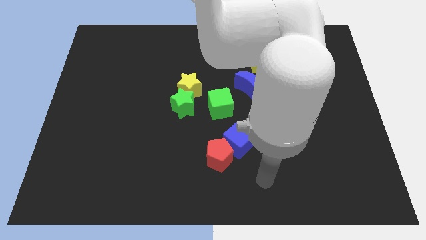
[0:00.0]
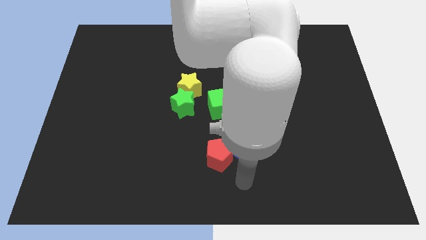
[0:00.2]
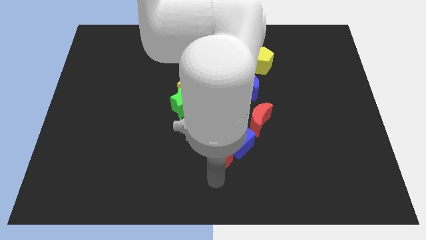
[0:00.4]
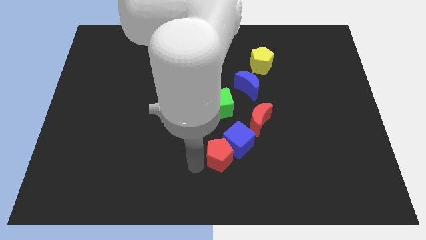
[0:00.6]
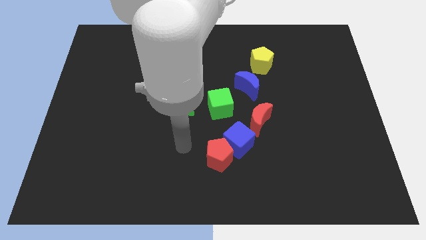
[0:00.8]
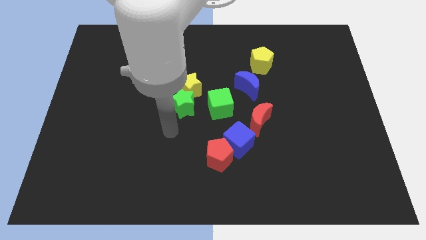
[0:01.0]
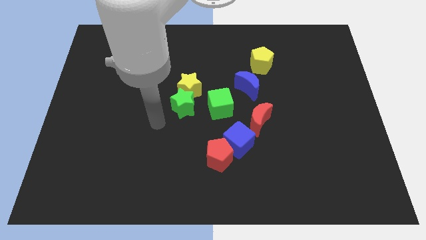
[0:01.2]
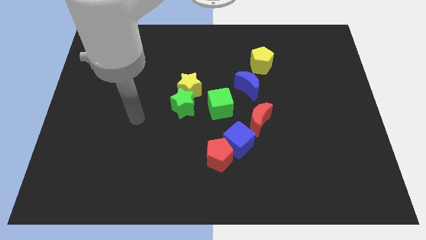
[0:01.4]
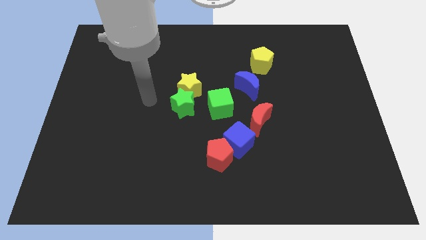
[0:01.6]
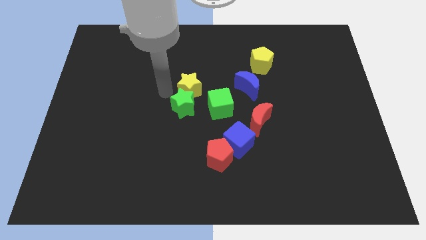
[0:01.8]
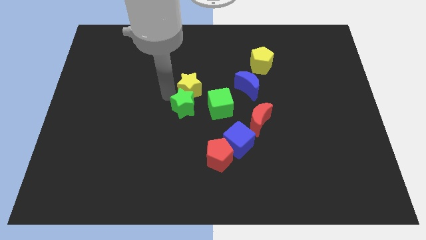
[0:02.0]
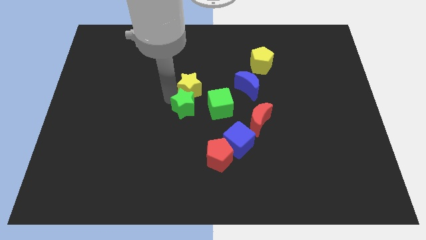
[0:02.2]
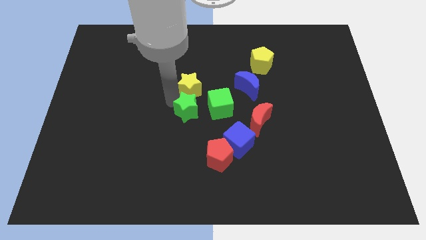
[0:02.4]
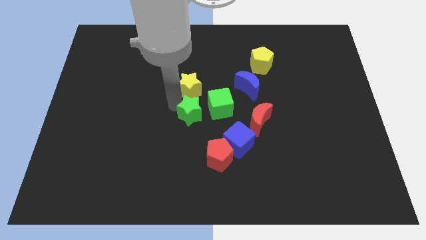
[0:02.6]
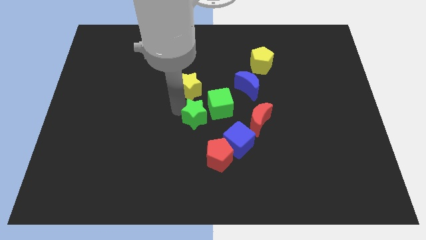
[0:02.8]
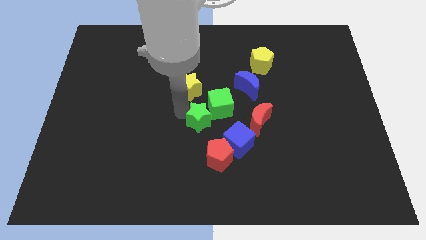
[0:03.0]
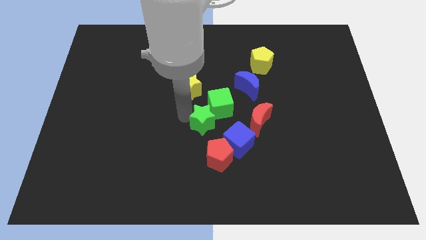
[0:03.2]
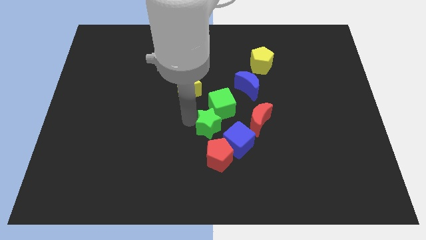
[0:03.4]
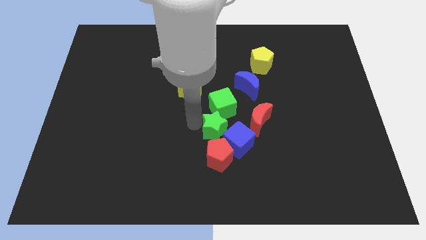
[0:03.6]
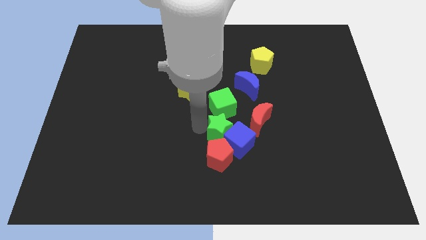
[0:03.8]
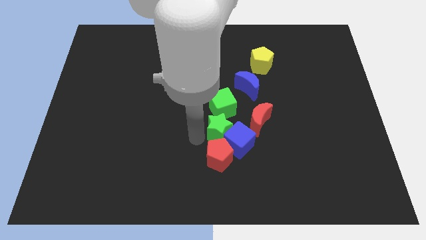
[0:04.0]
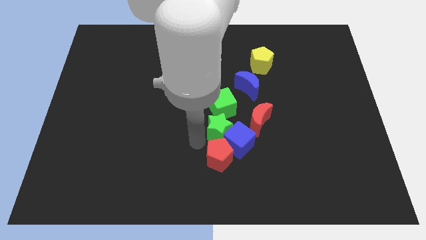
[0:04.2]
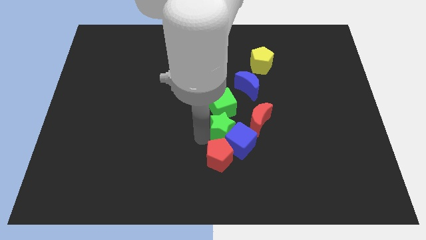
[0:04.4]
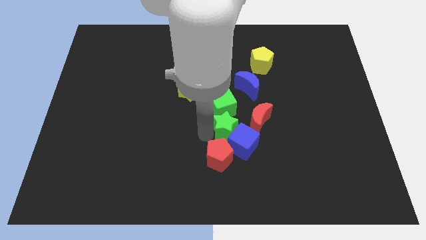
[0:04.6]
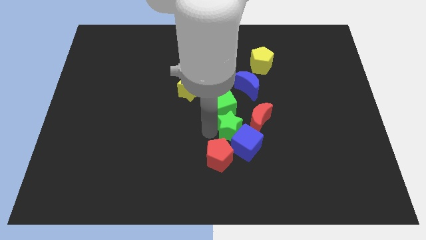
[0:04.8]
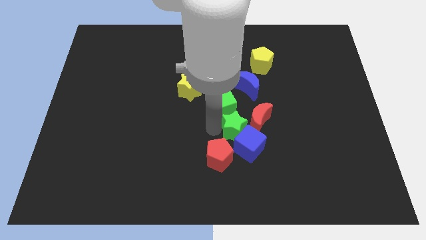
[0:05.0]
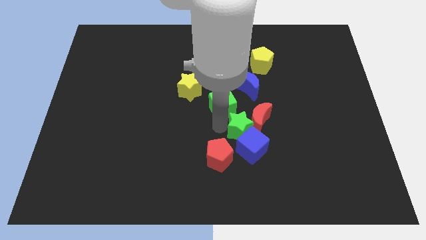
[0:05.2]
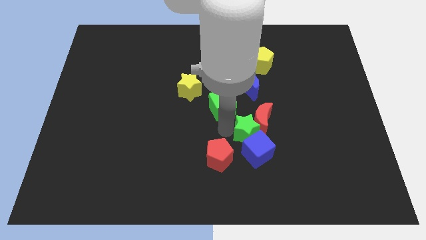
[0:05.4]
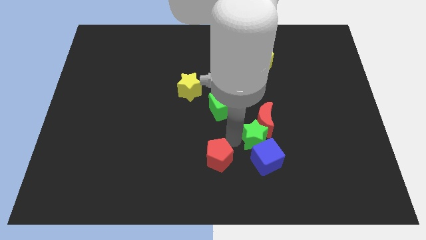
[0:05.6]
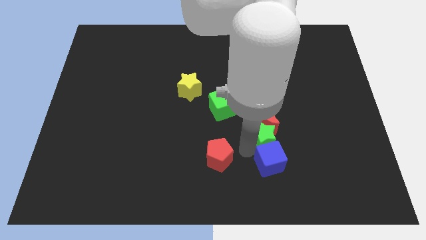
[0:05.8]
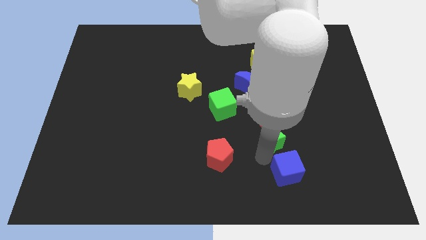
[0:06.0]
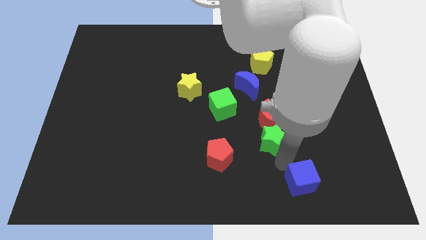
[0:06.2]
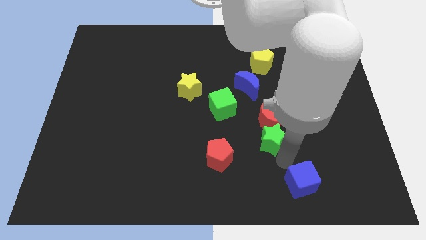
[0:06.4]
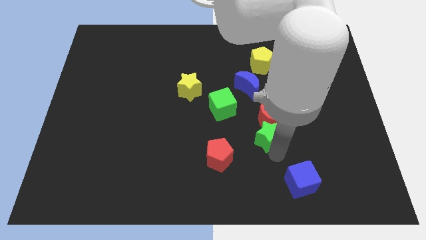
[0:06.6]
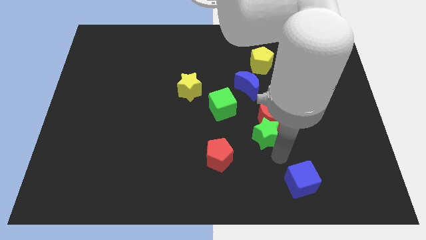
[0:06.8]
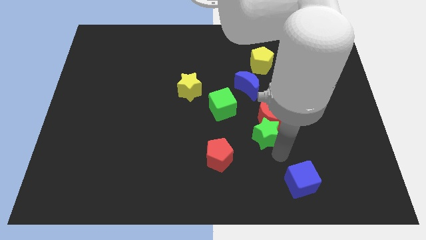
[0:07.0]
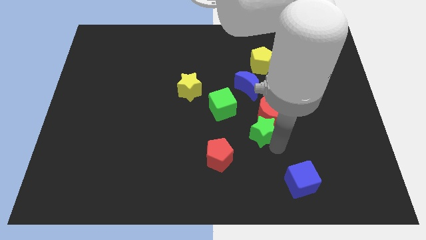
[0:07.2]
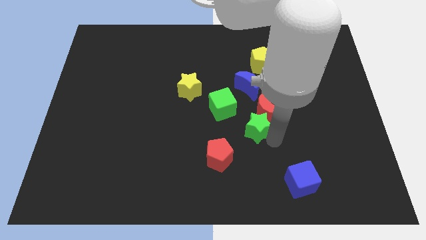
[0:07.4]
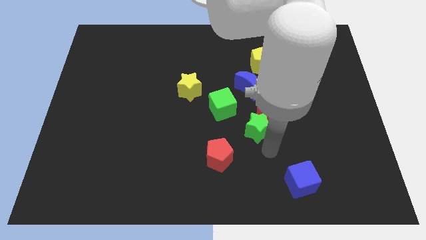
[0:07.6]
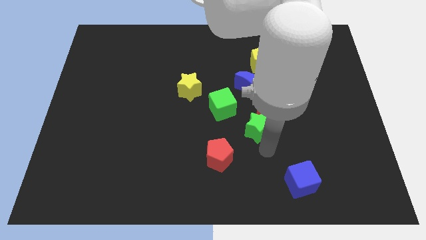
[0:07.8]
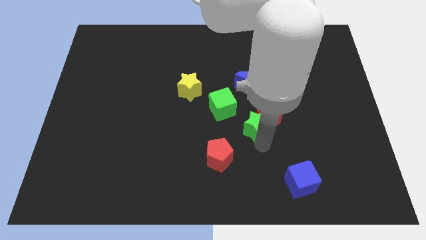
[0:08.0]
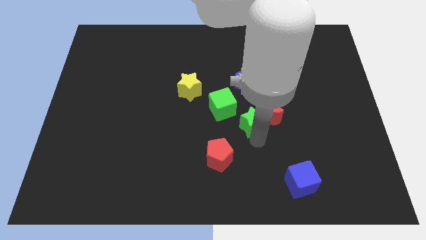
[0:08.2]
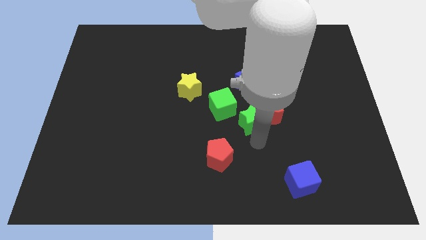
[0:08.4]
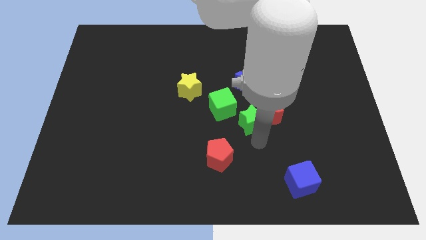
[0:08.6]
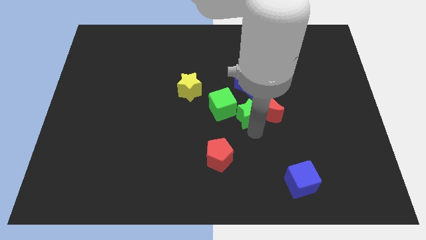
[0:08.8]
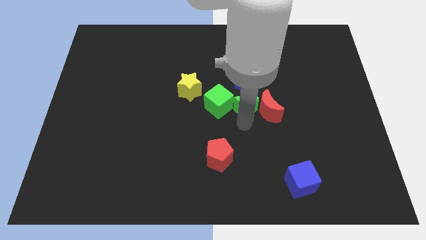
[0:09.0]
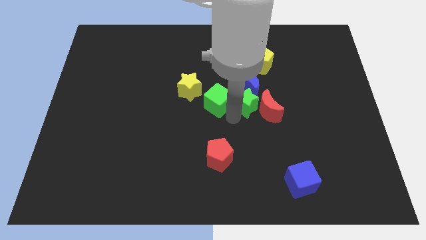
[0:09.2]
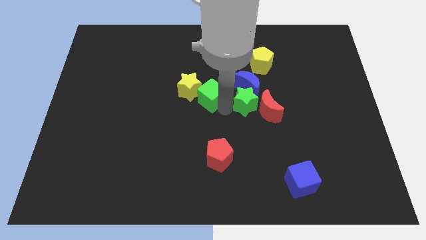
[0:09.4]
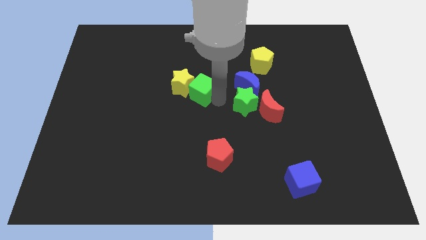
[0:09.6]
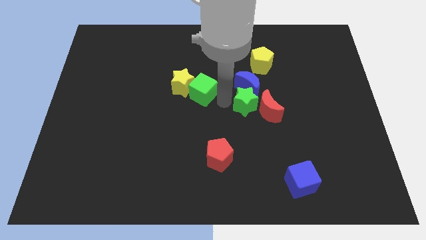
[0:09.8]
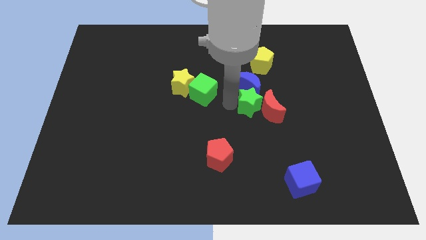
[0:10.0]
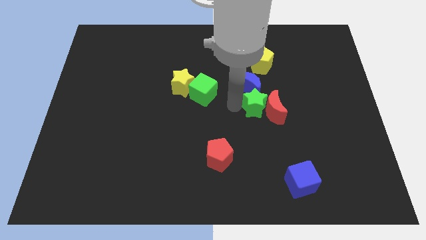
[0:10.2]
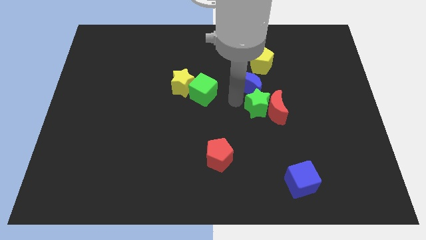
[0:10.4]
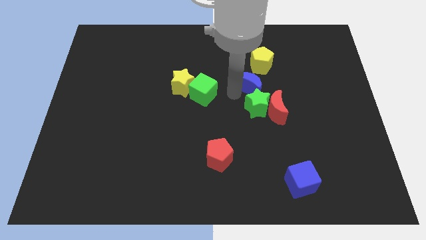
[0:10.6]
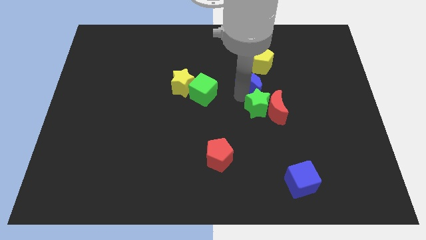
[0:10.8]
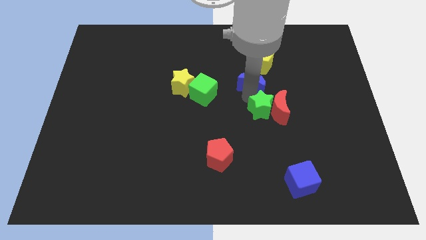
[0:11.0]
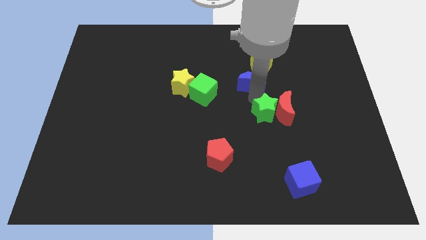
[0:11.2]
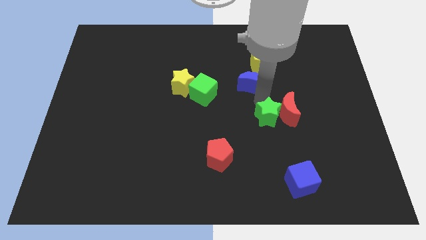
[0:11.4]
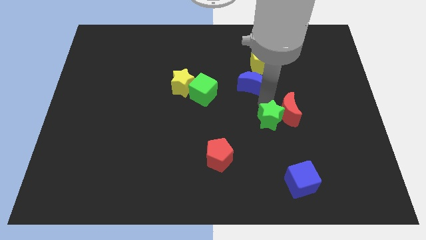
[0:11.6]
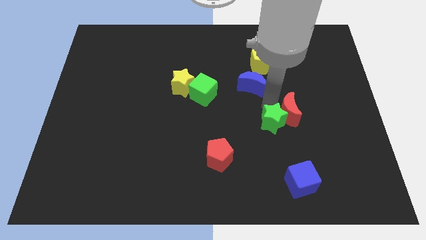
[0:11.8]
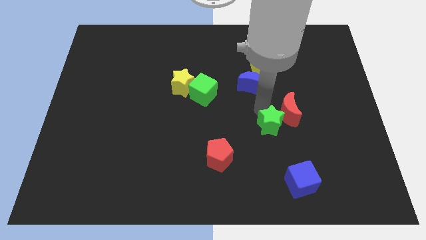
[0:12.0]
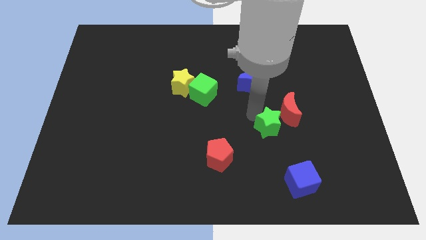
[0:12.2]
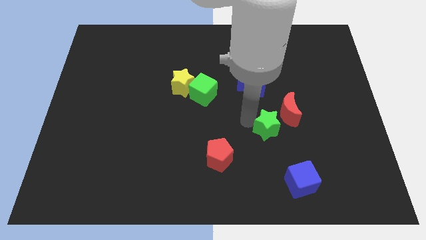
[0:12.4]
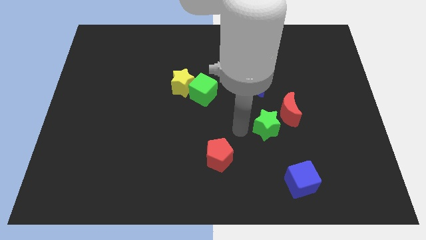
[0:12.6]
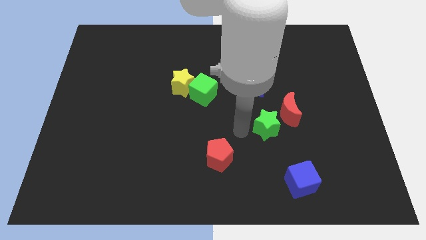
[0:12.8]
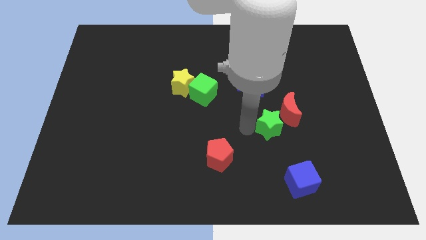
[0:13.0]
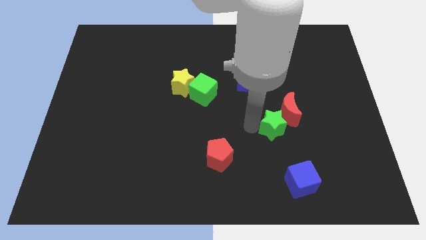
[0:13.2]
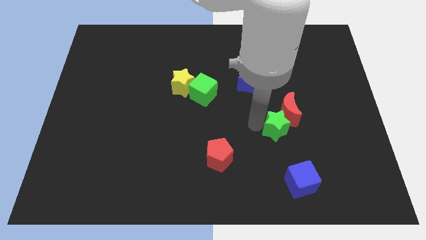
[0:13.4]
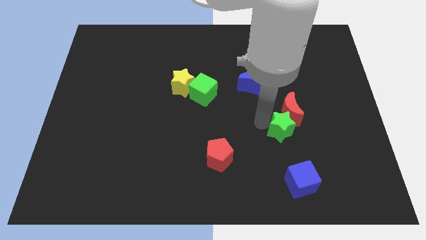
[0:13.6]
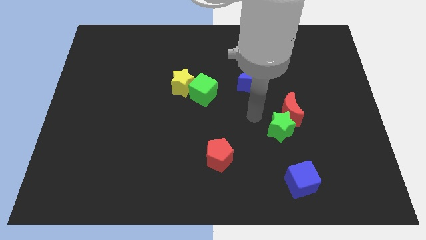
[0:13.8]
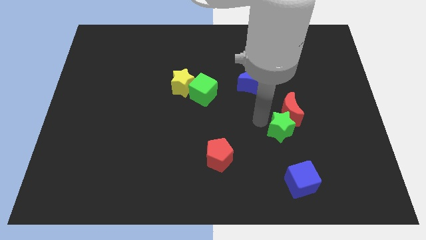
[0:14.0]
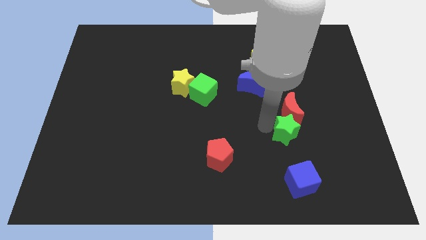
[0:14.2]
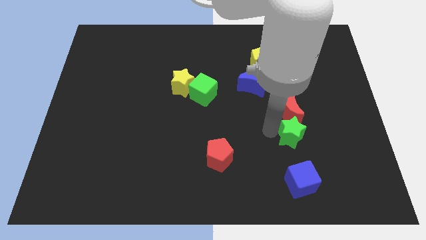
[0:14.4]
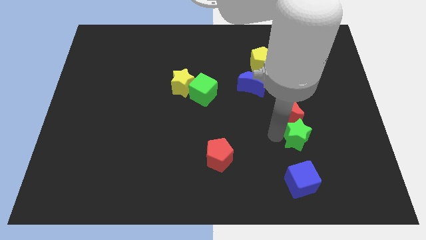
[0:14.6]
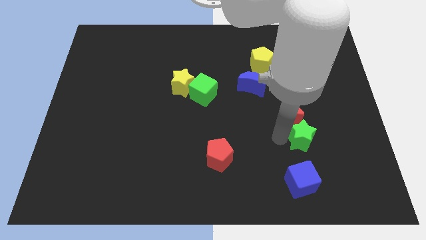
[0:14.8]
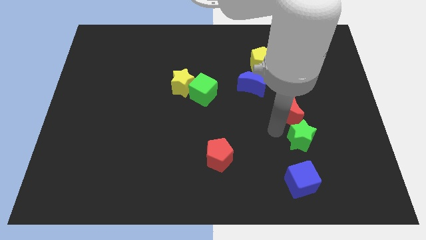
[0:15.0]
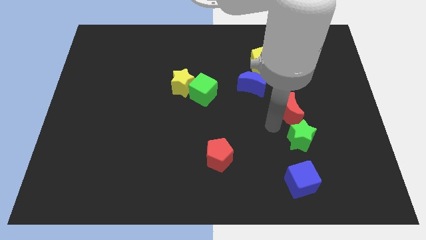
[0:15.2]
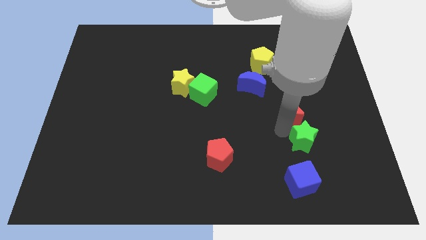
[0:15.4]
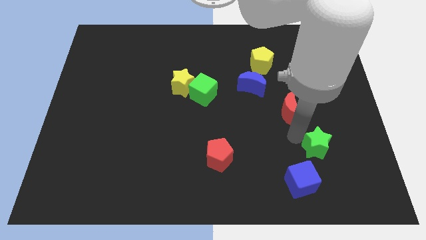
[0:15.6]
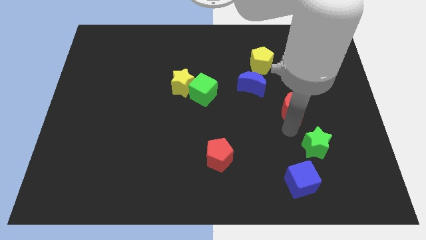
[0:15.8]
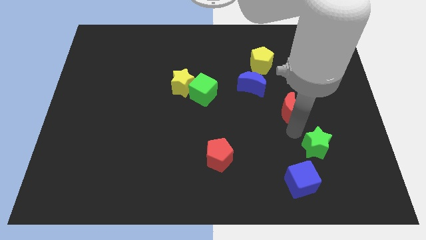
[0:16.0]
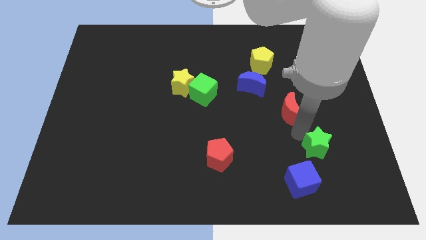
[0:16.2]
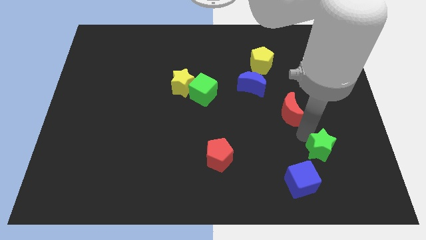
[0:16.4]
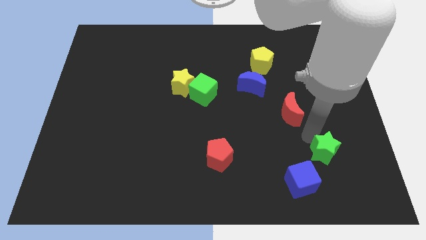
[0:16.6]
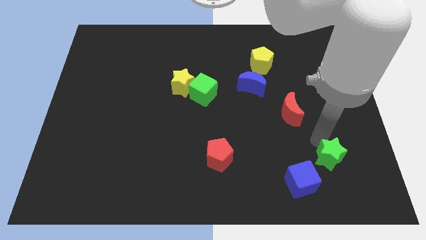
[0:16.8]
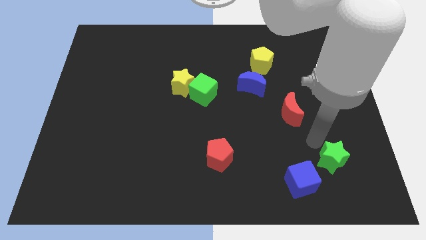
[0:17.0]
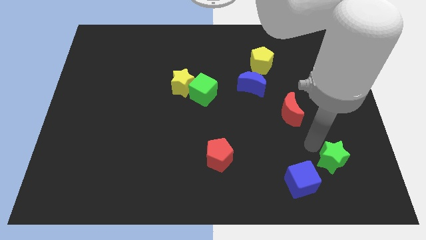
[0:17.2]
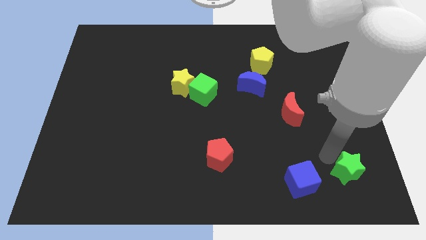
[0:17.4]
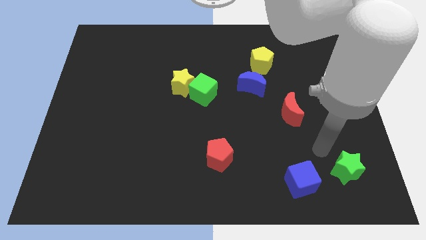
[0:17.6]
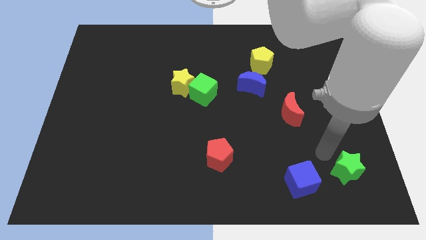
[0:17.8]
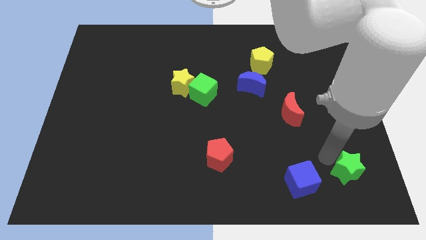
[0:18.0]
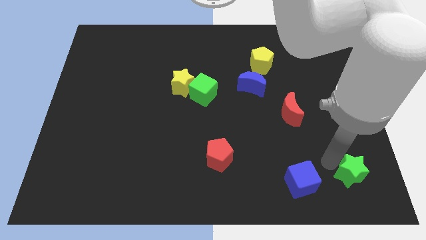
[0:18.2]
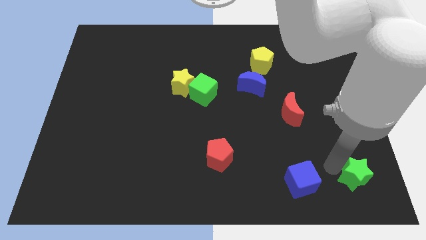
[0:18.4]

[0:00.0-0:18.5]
push the green star to the bottom right of the board
